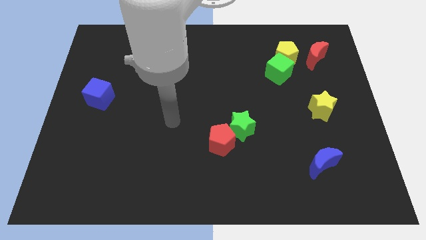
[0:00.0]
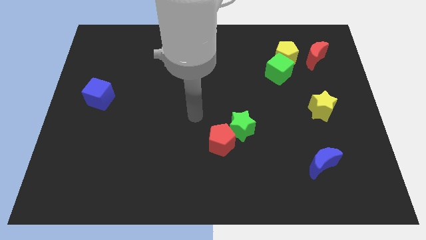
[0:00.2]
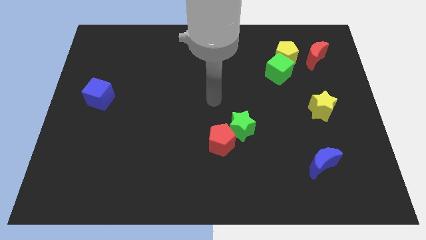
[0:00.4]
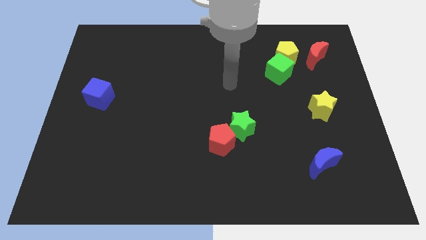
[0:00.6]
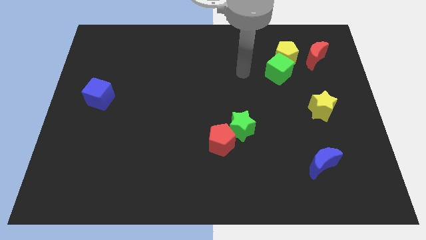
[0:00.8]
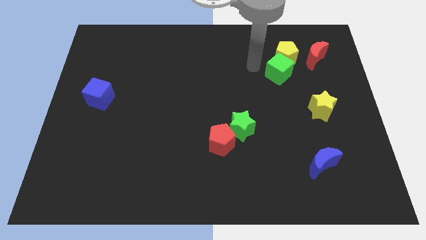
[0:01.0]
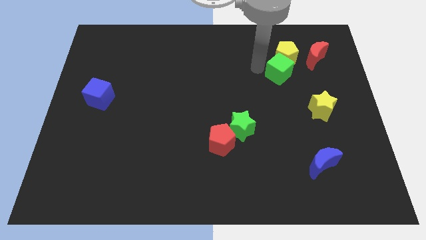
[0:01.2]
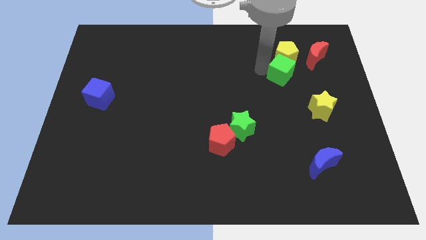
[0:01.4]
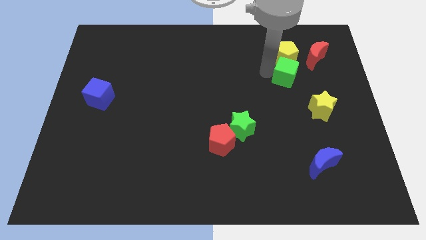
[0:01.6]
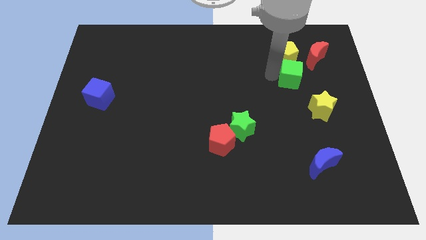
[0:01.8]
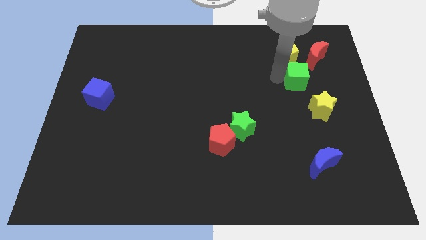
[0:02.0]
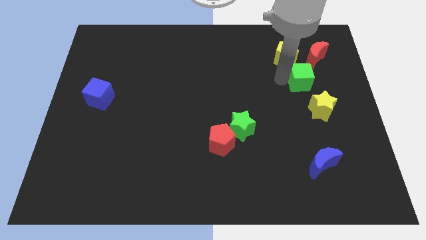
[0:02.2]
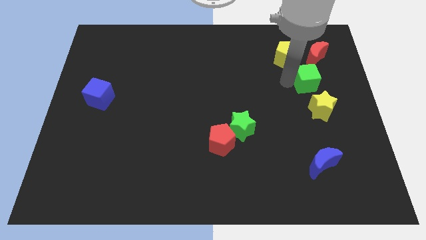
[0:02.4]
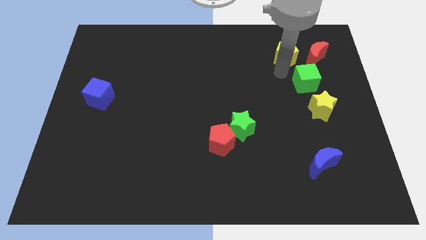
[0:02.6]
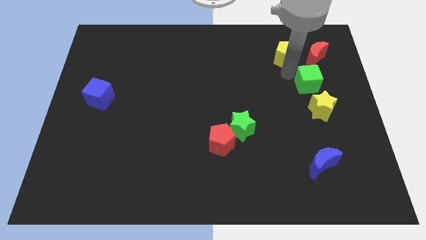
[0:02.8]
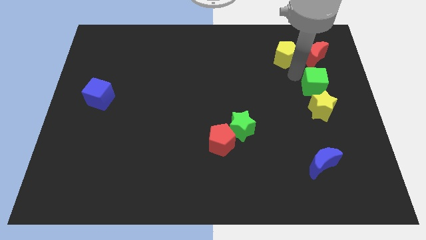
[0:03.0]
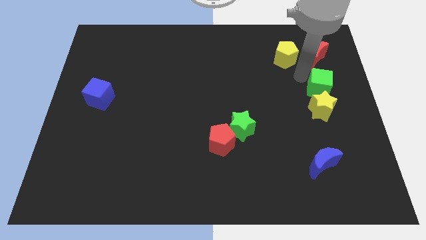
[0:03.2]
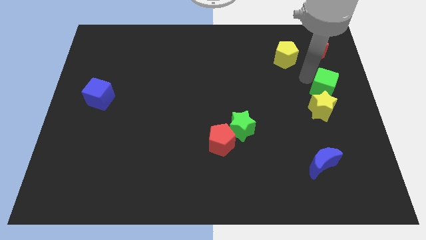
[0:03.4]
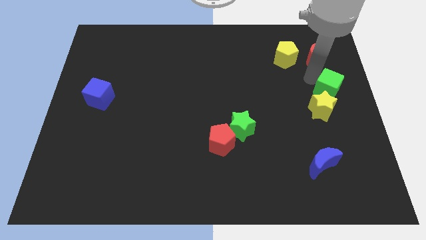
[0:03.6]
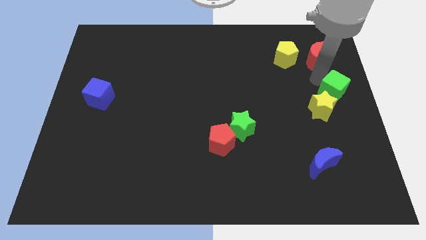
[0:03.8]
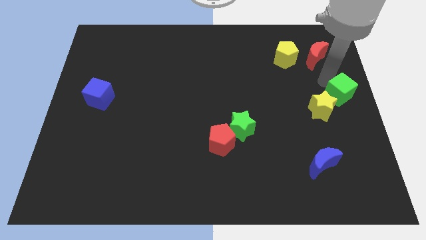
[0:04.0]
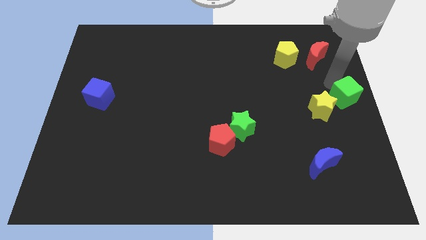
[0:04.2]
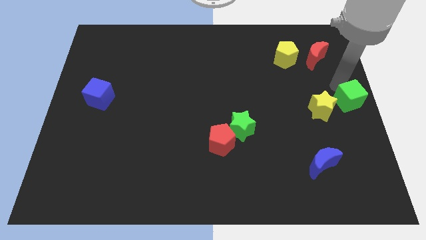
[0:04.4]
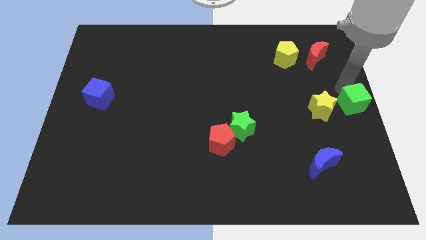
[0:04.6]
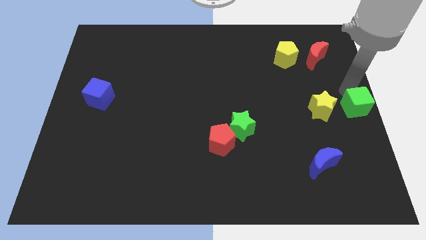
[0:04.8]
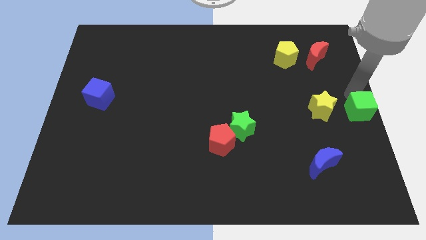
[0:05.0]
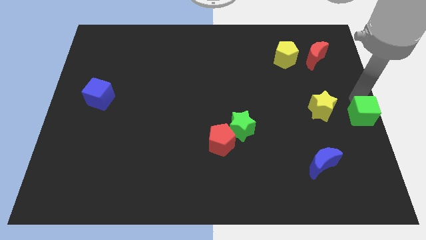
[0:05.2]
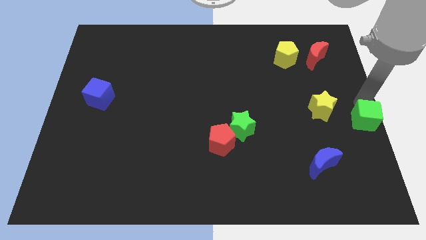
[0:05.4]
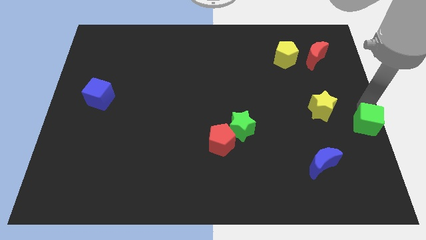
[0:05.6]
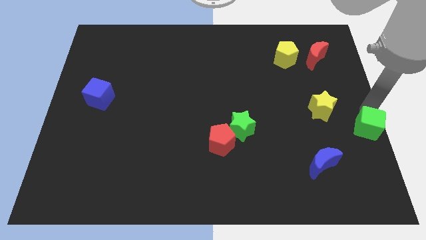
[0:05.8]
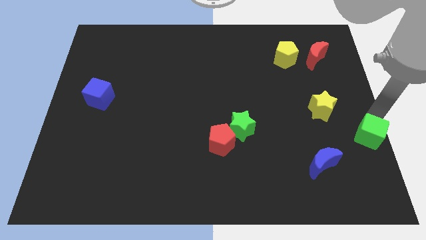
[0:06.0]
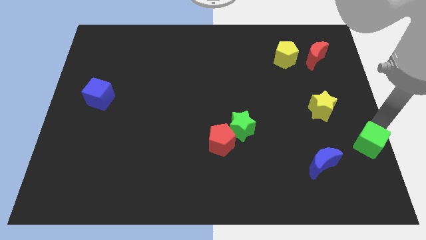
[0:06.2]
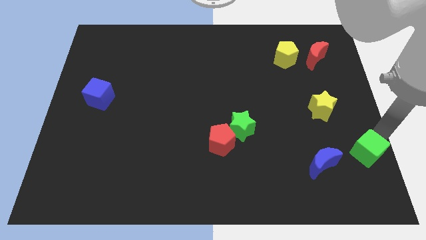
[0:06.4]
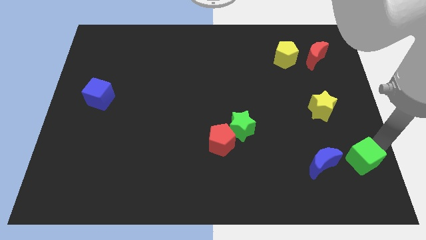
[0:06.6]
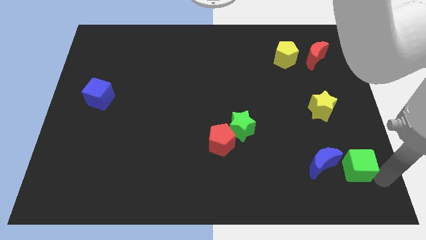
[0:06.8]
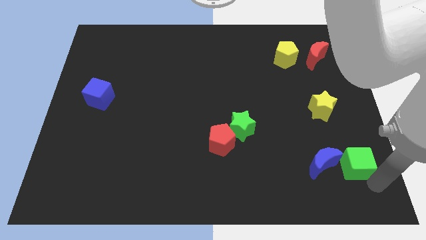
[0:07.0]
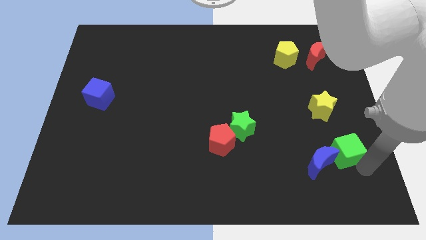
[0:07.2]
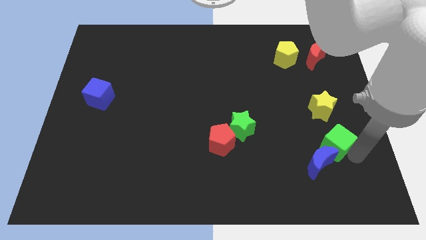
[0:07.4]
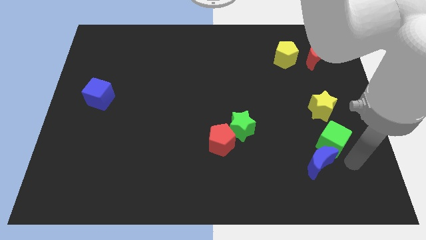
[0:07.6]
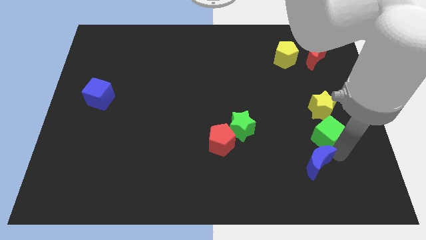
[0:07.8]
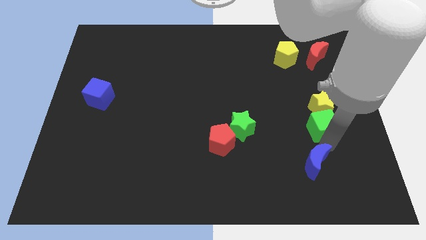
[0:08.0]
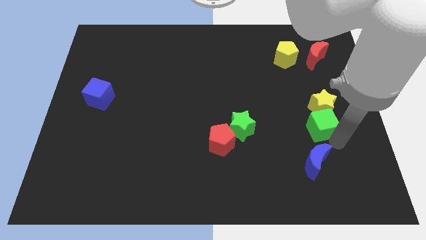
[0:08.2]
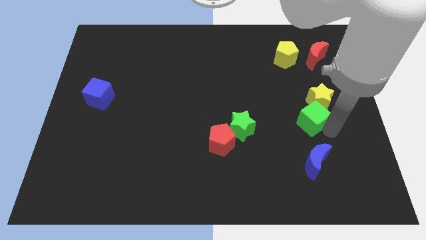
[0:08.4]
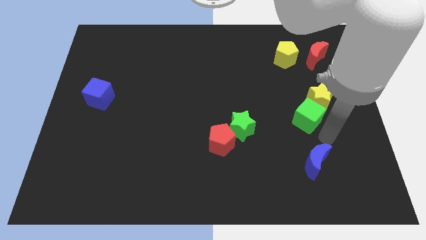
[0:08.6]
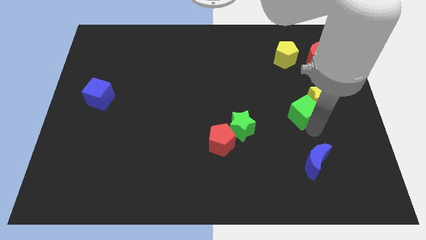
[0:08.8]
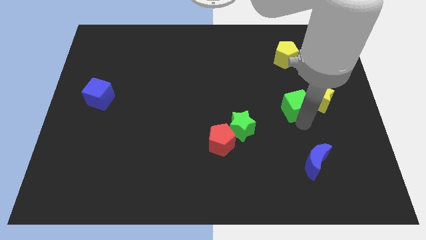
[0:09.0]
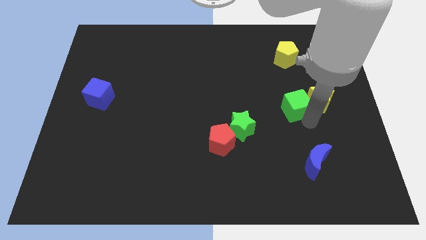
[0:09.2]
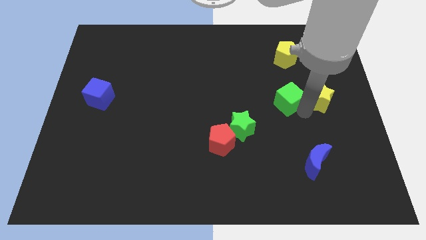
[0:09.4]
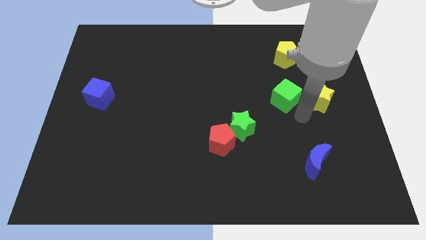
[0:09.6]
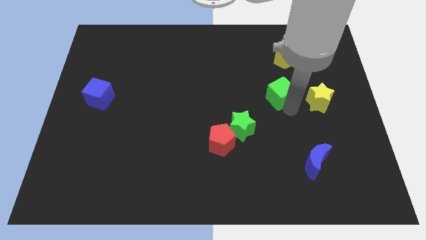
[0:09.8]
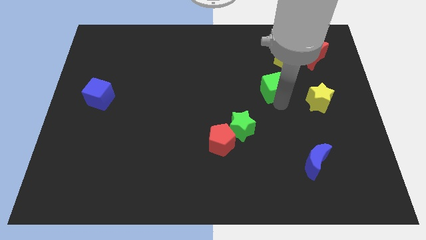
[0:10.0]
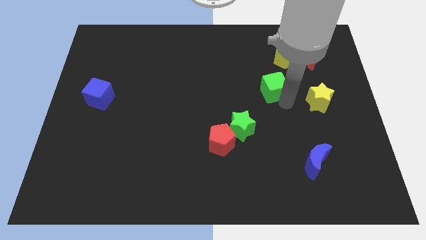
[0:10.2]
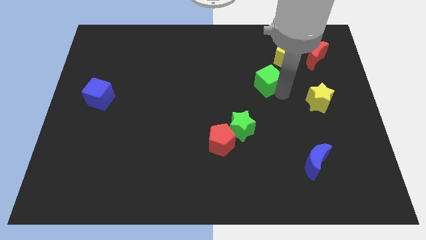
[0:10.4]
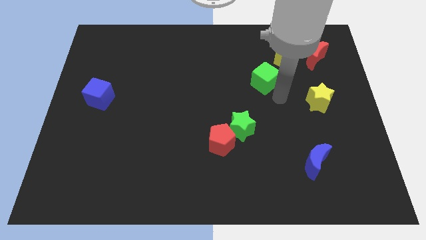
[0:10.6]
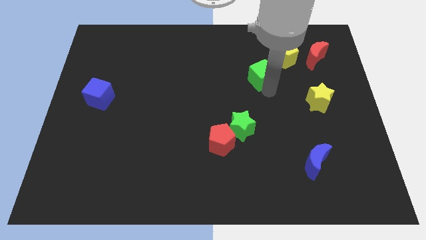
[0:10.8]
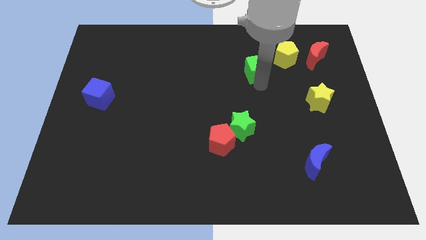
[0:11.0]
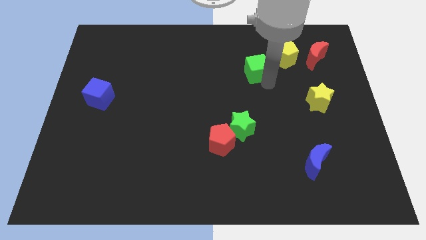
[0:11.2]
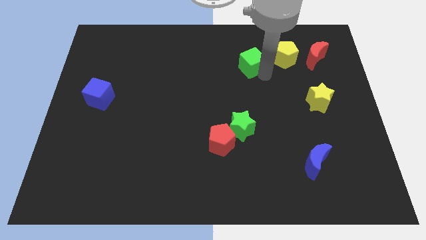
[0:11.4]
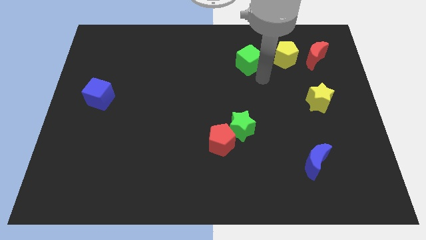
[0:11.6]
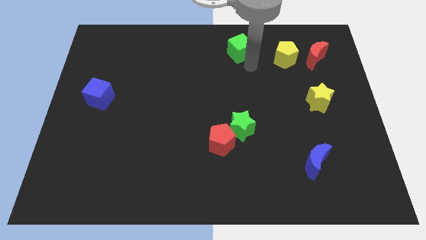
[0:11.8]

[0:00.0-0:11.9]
slide the green cube to the top
